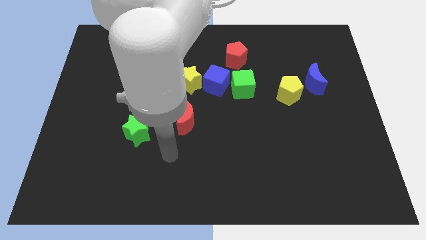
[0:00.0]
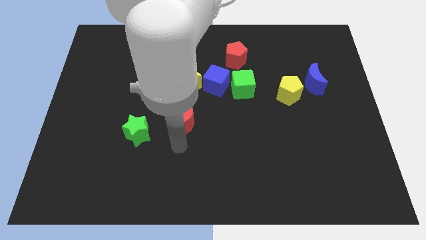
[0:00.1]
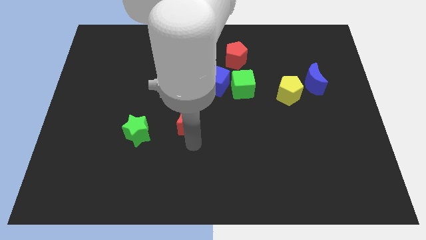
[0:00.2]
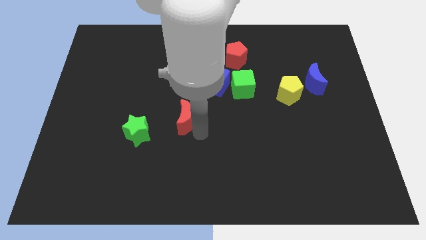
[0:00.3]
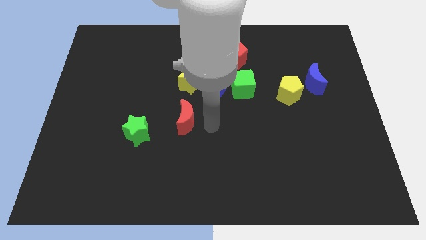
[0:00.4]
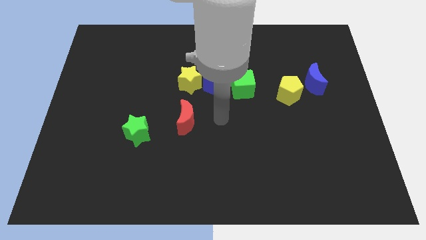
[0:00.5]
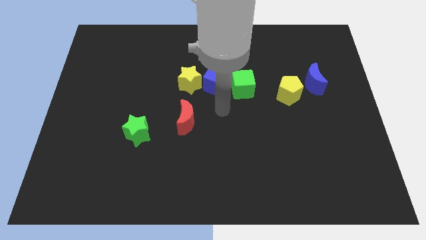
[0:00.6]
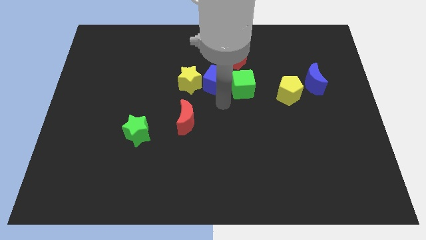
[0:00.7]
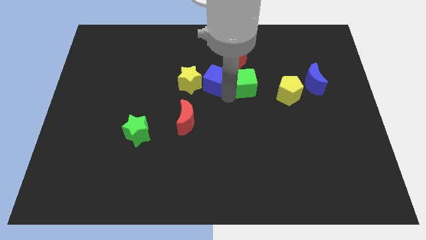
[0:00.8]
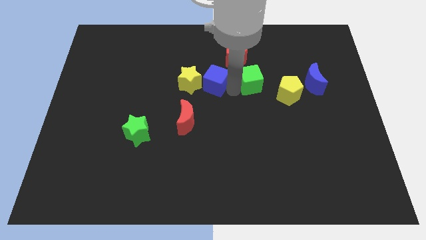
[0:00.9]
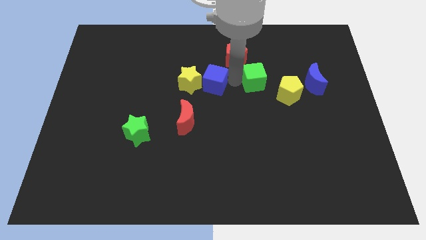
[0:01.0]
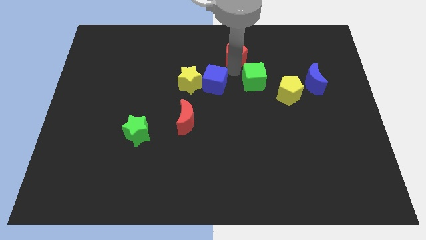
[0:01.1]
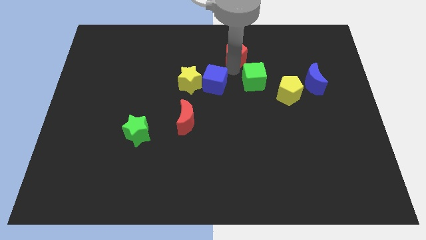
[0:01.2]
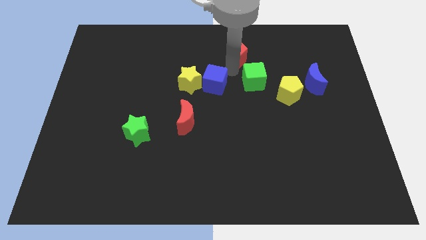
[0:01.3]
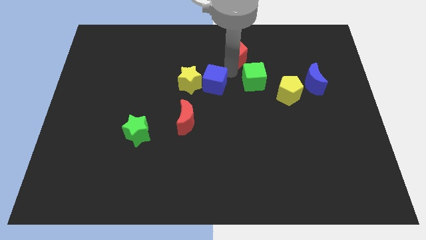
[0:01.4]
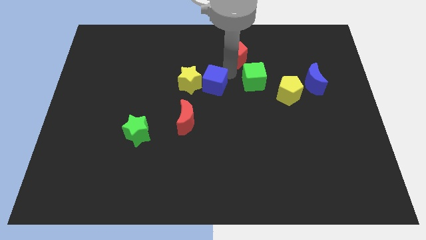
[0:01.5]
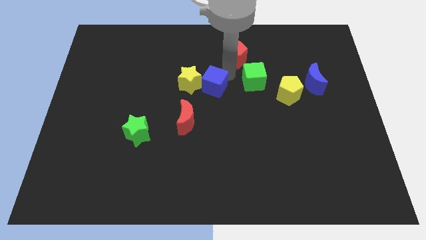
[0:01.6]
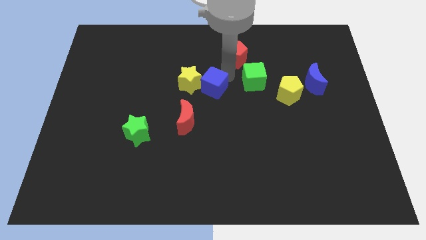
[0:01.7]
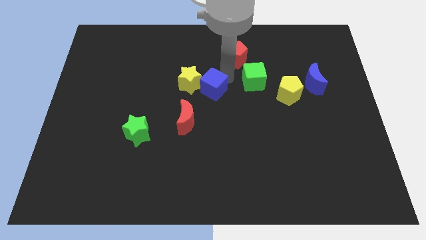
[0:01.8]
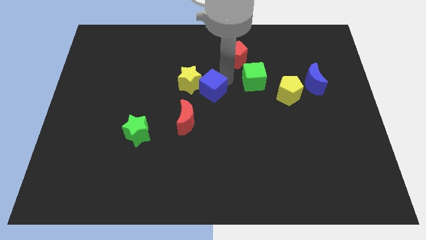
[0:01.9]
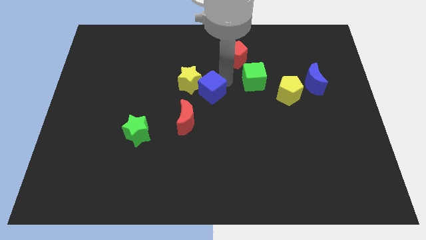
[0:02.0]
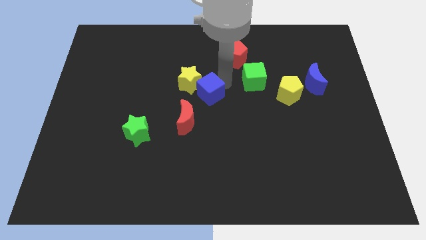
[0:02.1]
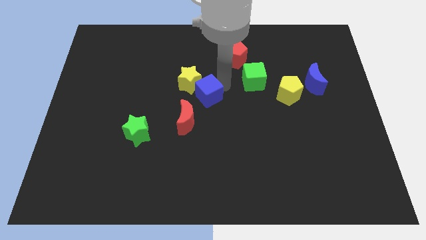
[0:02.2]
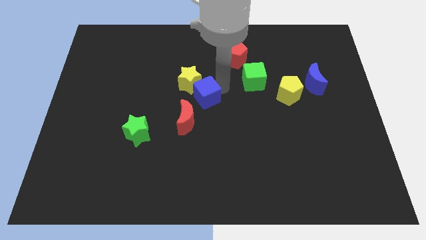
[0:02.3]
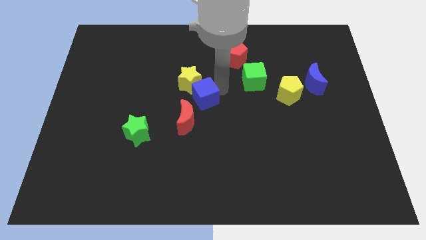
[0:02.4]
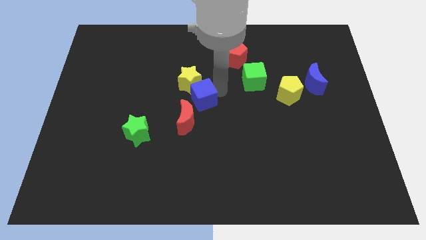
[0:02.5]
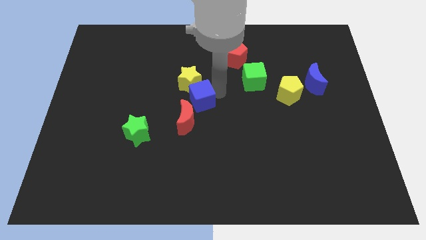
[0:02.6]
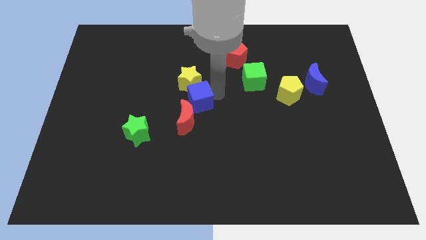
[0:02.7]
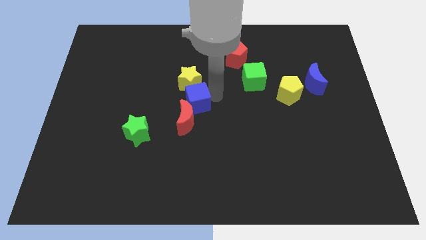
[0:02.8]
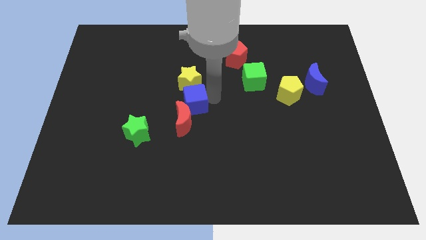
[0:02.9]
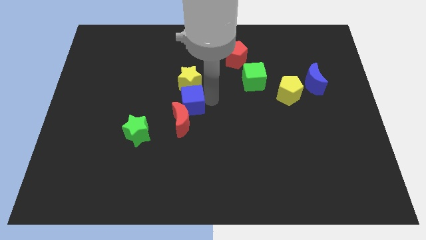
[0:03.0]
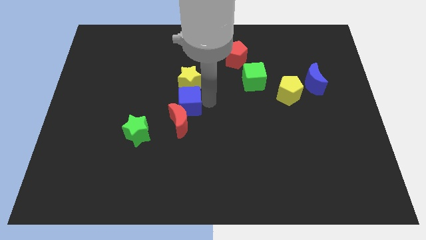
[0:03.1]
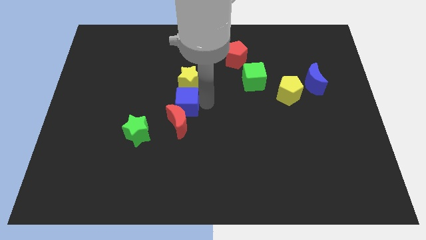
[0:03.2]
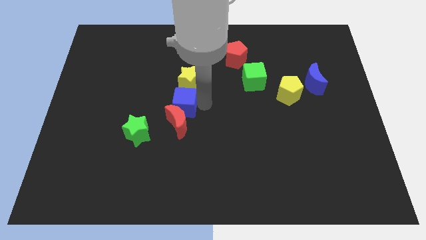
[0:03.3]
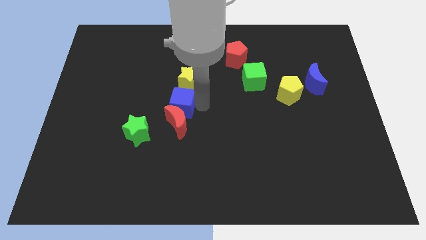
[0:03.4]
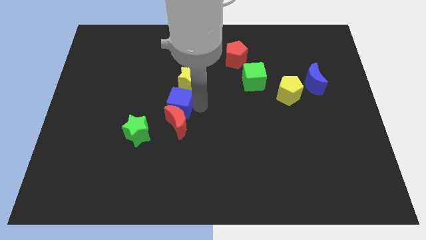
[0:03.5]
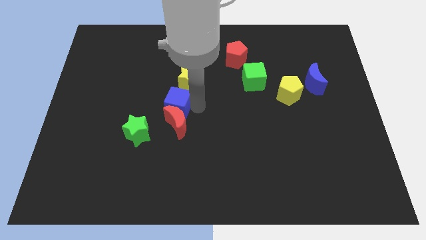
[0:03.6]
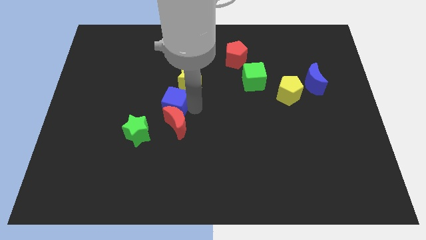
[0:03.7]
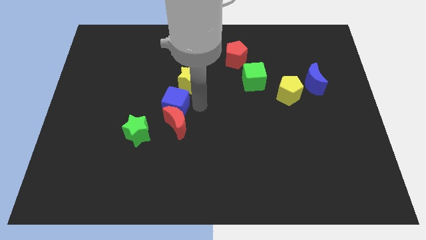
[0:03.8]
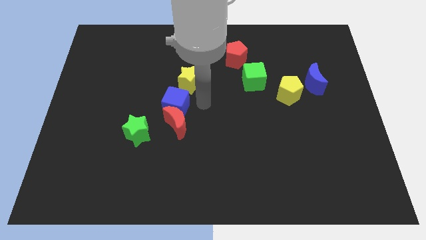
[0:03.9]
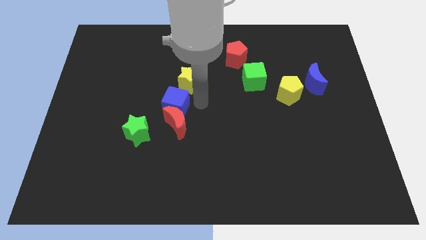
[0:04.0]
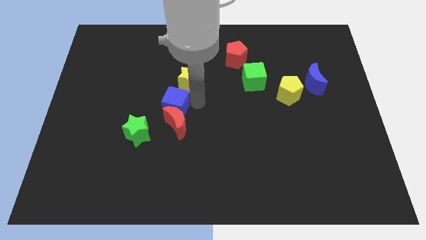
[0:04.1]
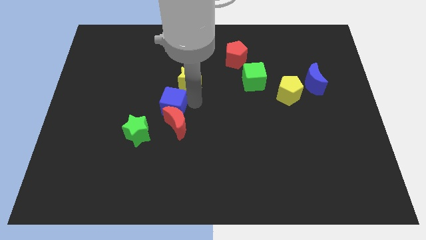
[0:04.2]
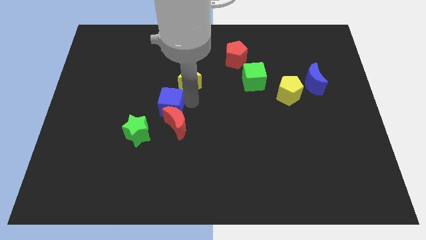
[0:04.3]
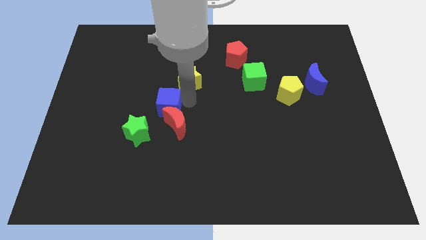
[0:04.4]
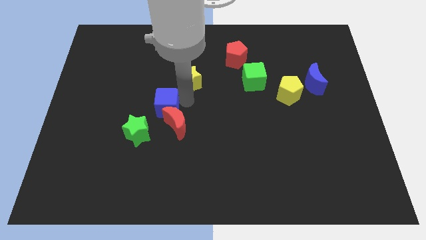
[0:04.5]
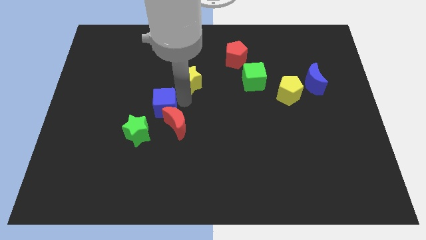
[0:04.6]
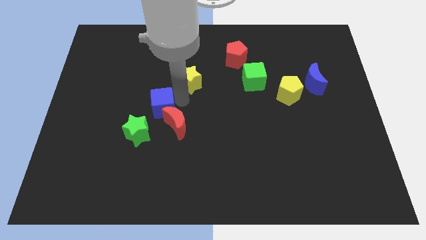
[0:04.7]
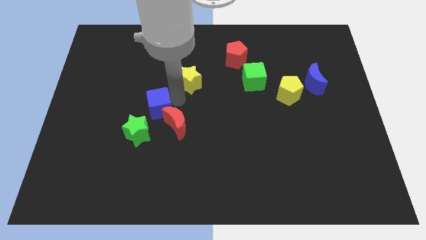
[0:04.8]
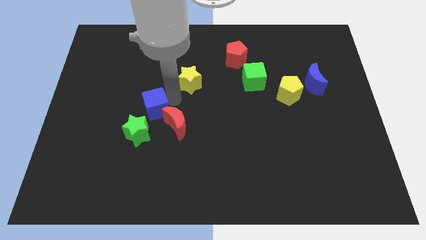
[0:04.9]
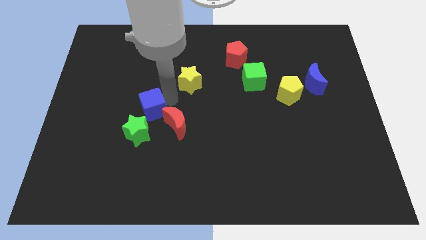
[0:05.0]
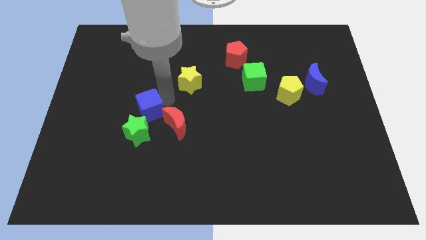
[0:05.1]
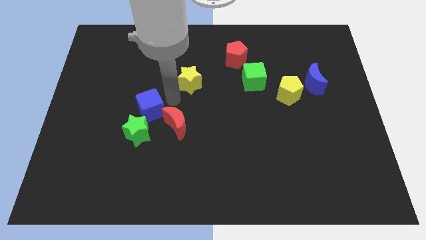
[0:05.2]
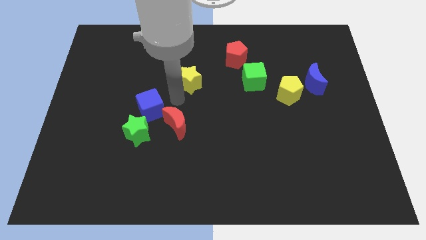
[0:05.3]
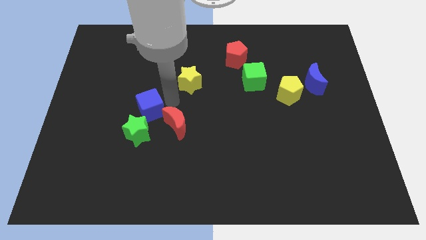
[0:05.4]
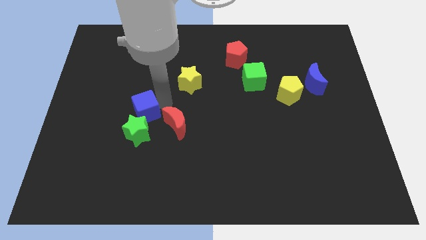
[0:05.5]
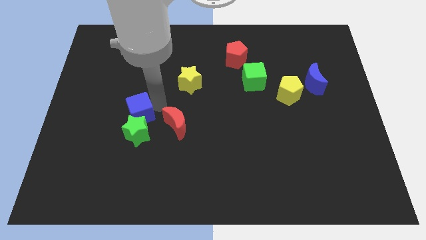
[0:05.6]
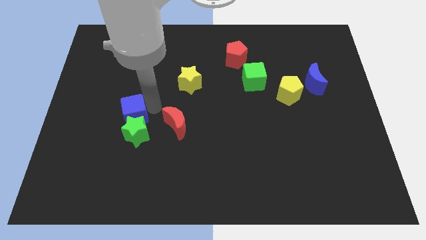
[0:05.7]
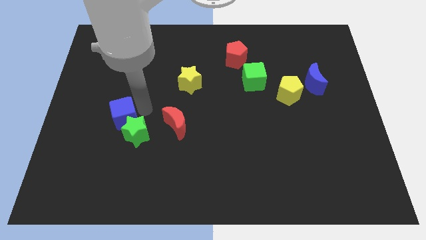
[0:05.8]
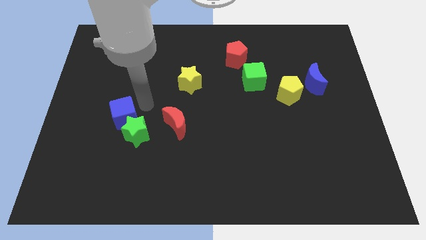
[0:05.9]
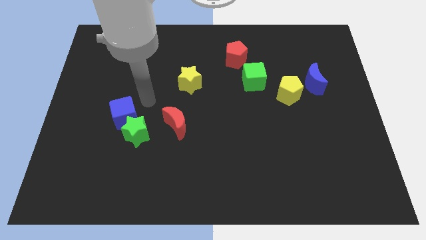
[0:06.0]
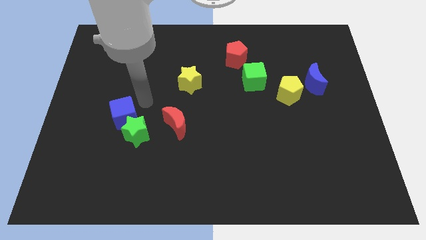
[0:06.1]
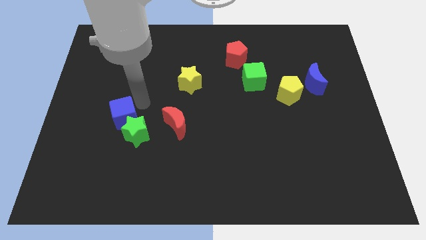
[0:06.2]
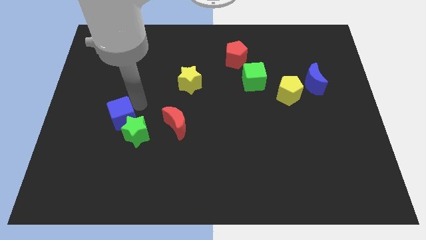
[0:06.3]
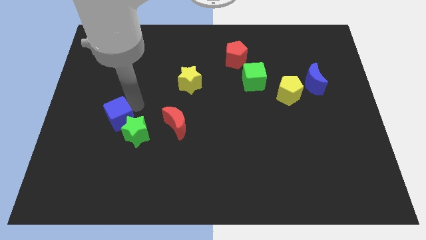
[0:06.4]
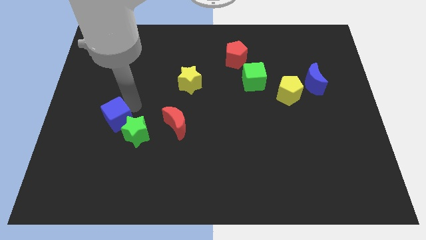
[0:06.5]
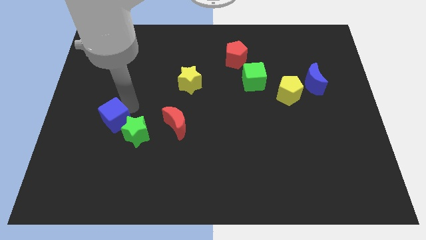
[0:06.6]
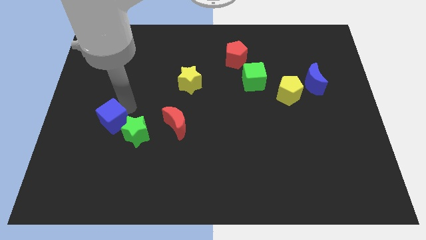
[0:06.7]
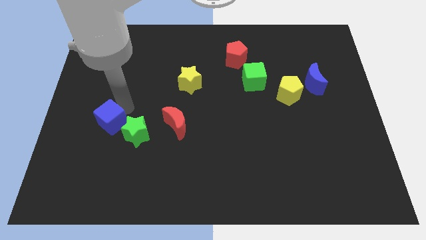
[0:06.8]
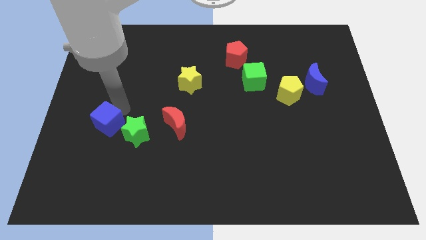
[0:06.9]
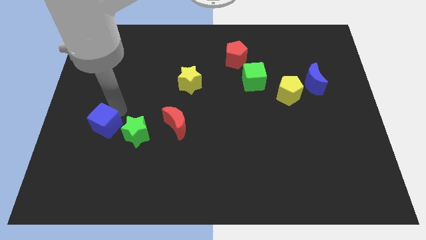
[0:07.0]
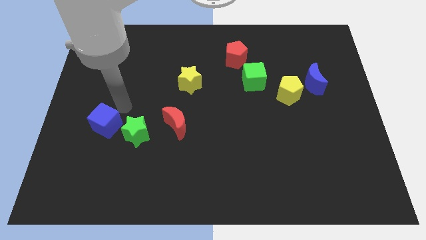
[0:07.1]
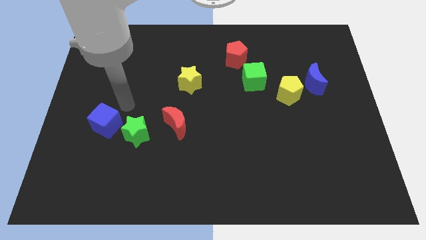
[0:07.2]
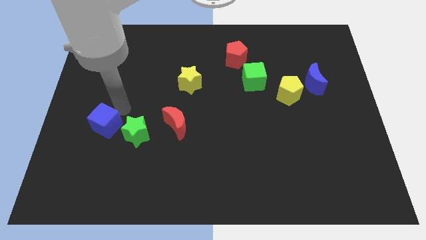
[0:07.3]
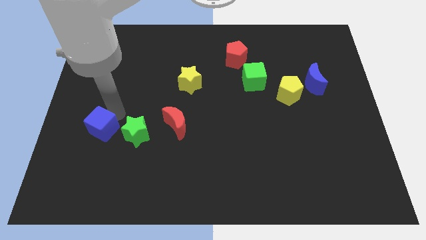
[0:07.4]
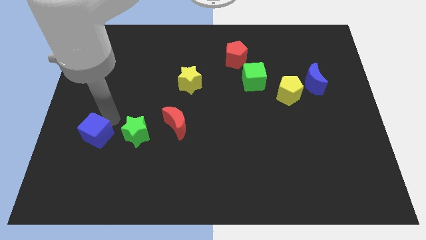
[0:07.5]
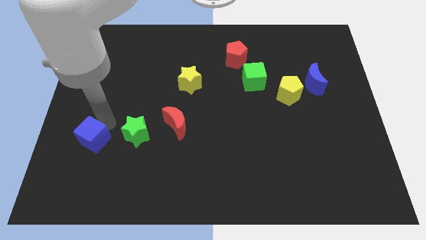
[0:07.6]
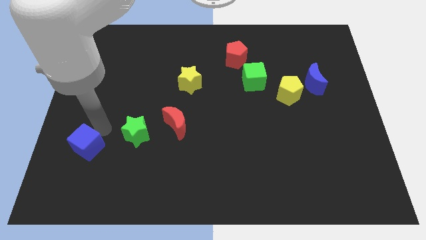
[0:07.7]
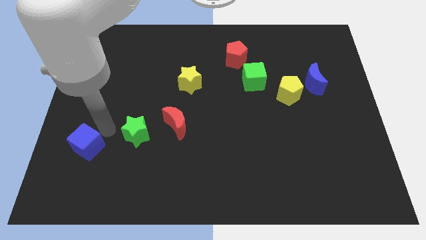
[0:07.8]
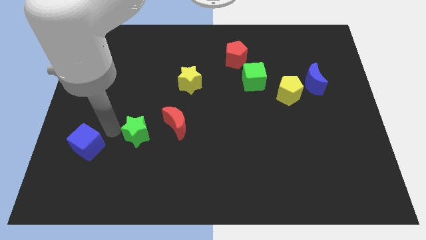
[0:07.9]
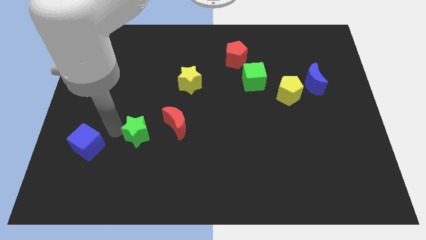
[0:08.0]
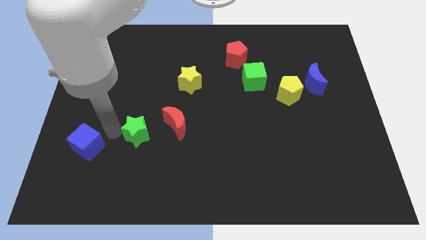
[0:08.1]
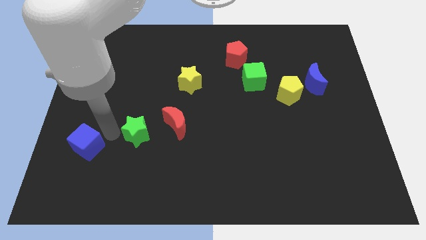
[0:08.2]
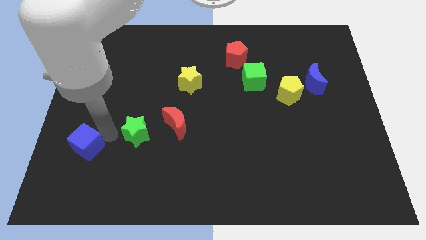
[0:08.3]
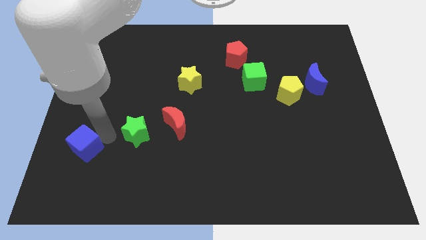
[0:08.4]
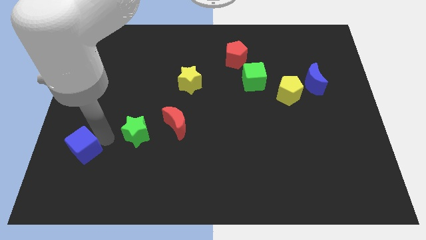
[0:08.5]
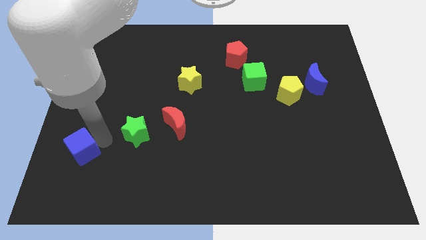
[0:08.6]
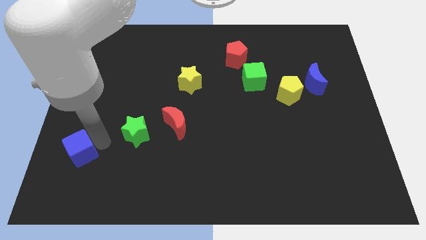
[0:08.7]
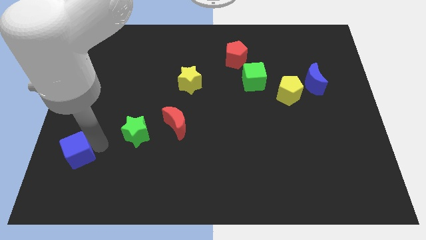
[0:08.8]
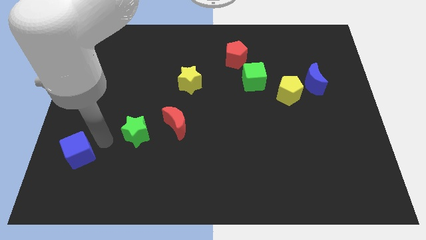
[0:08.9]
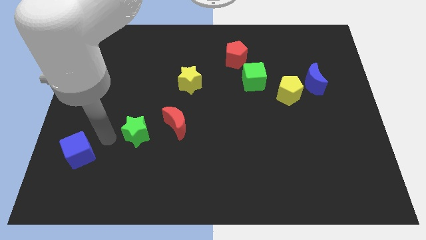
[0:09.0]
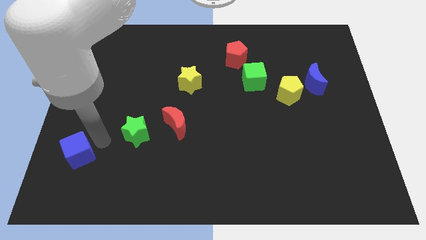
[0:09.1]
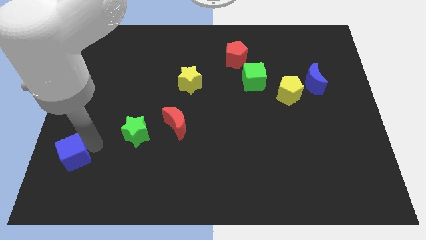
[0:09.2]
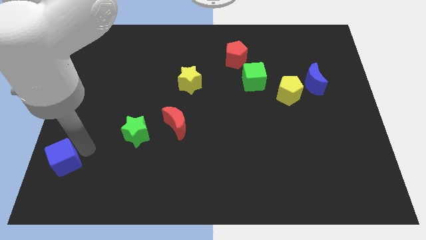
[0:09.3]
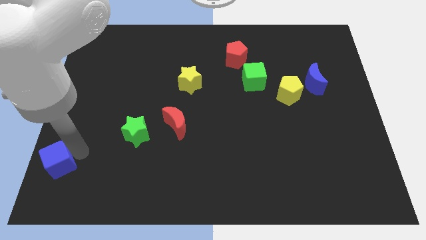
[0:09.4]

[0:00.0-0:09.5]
push the blue cube to the lower left corner
